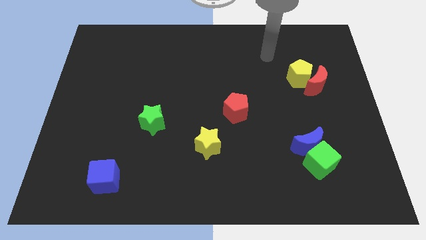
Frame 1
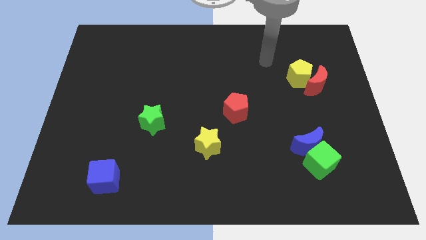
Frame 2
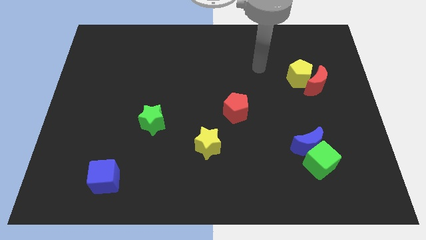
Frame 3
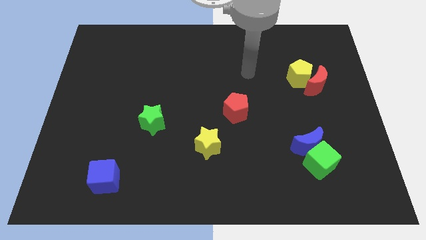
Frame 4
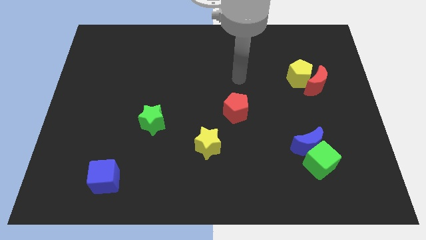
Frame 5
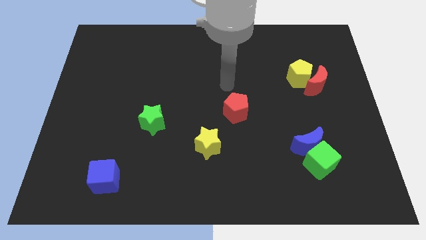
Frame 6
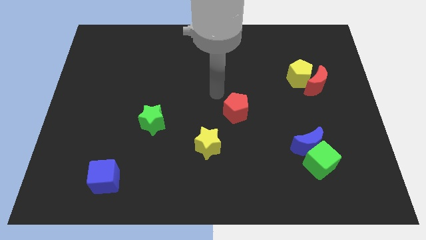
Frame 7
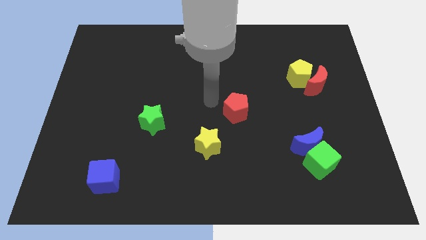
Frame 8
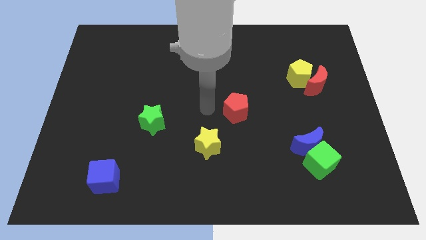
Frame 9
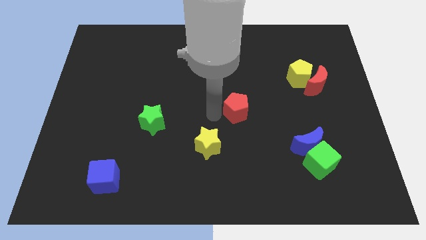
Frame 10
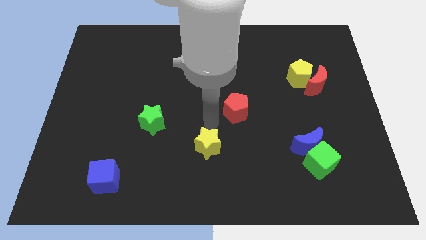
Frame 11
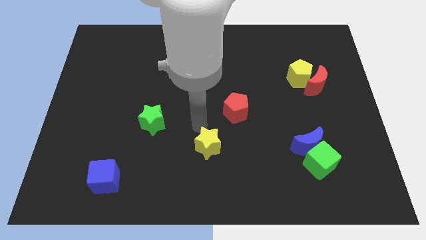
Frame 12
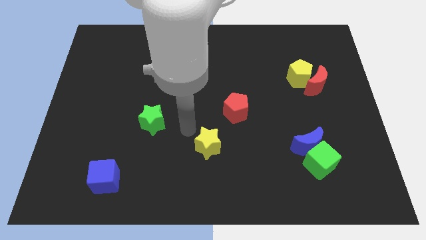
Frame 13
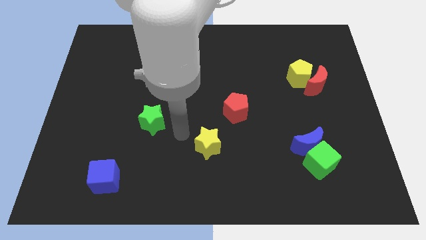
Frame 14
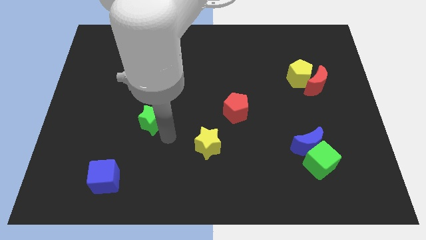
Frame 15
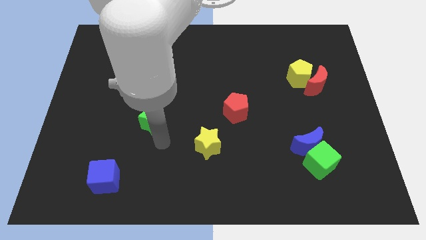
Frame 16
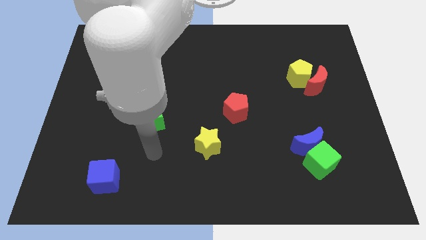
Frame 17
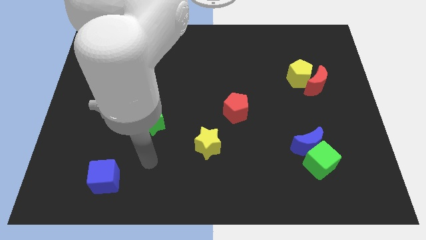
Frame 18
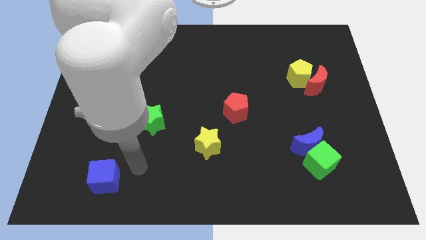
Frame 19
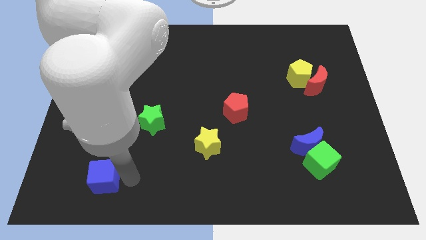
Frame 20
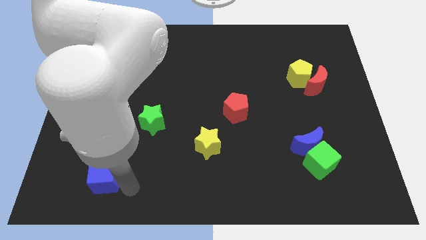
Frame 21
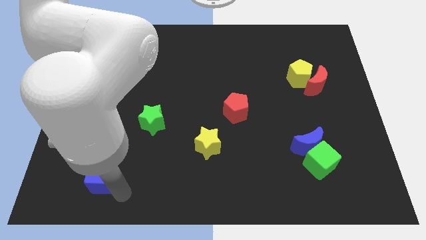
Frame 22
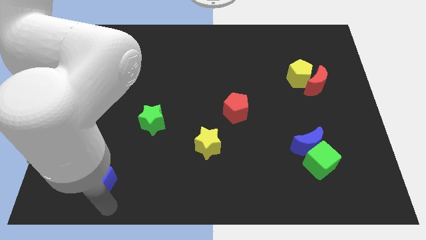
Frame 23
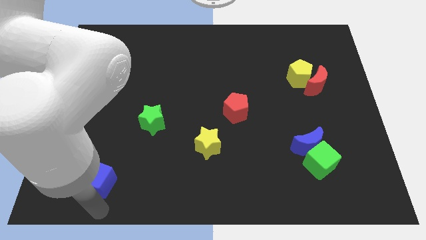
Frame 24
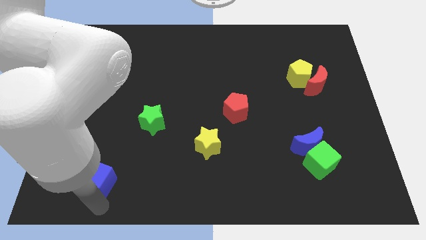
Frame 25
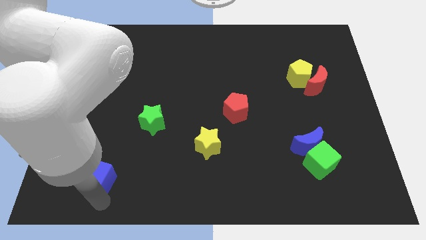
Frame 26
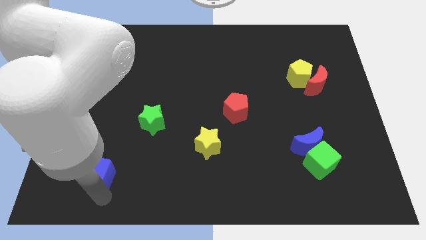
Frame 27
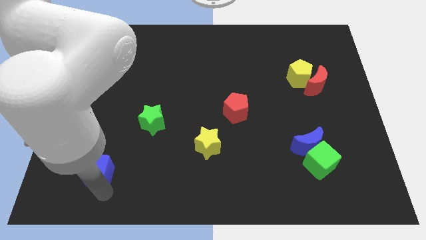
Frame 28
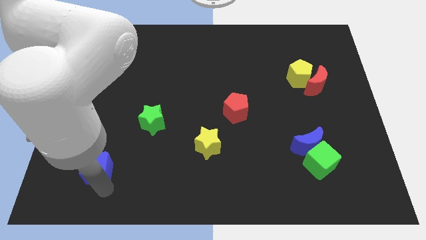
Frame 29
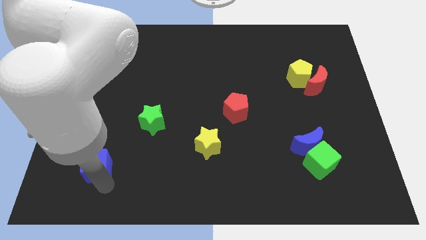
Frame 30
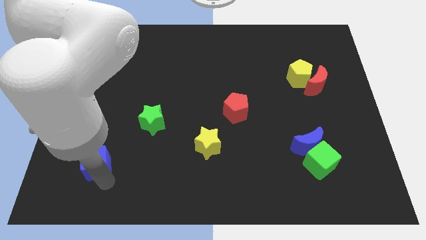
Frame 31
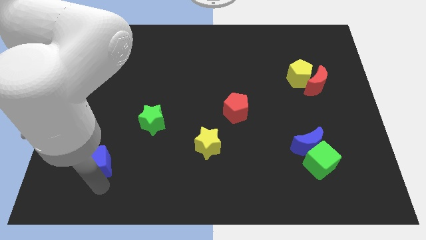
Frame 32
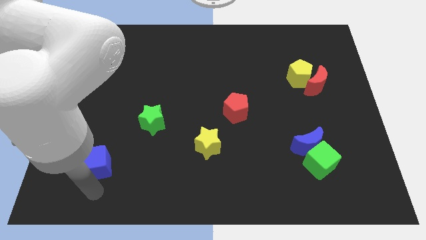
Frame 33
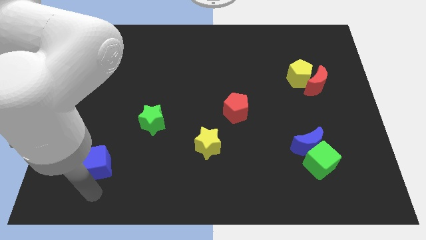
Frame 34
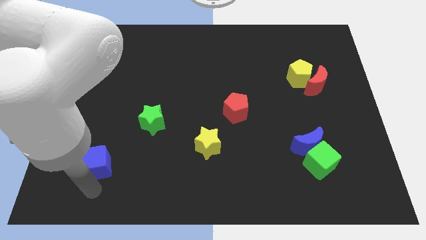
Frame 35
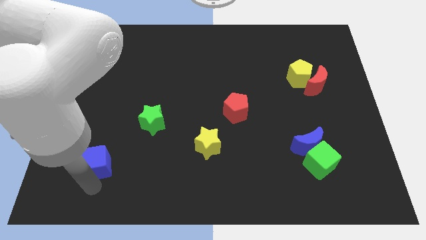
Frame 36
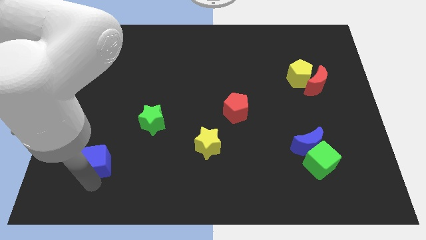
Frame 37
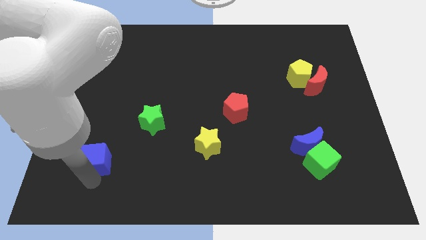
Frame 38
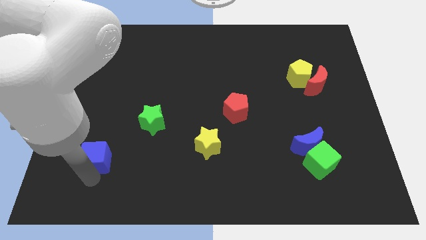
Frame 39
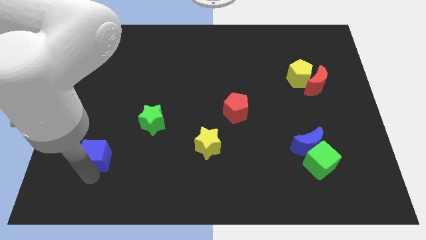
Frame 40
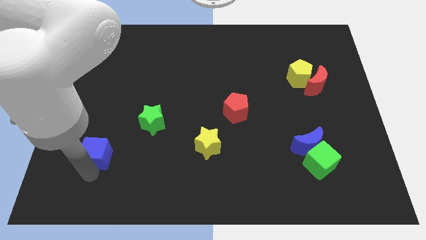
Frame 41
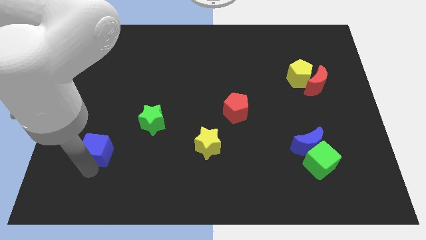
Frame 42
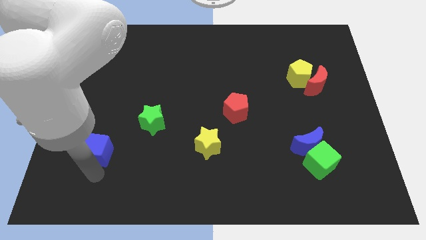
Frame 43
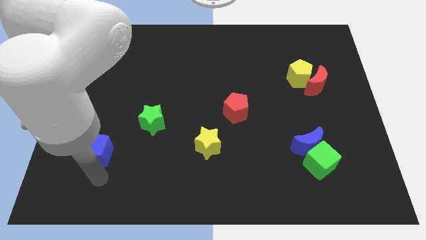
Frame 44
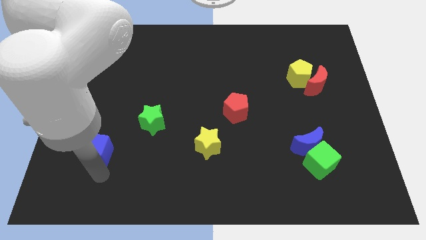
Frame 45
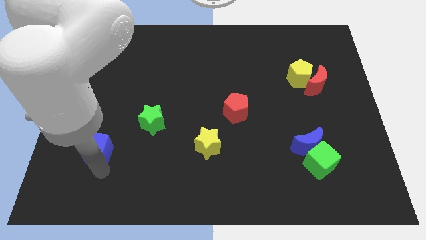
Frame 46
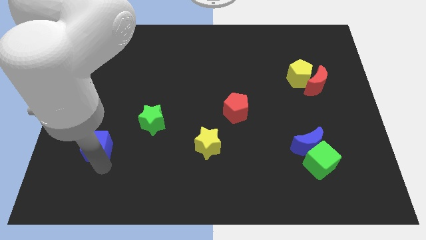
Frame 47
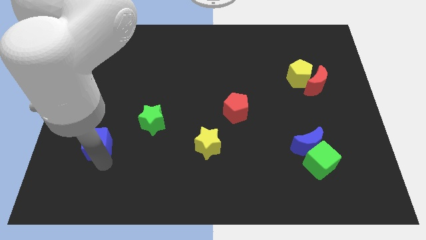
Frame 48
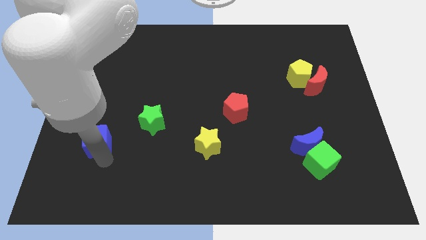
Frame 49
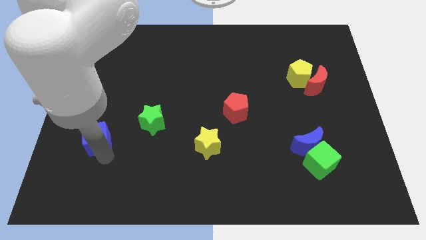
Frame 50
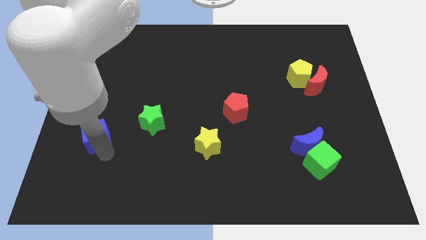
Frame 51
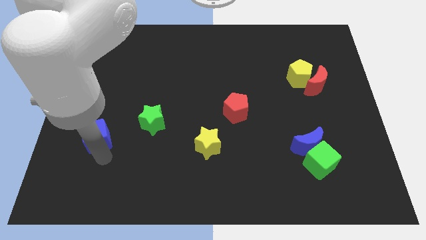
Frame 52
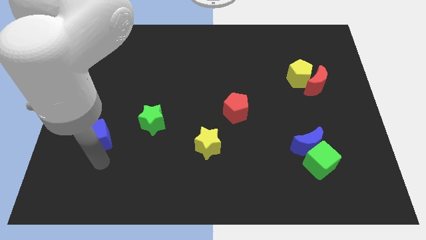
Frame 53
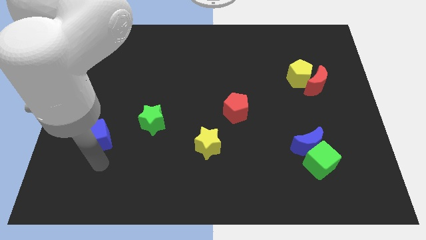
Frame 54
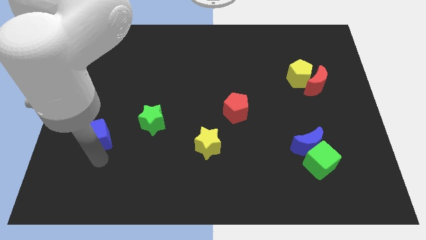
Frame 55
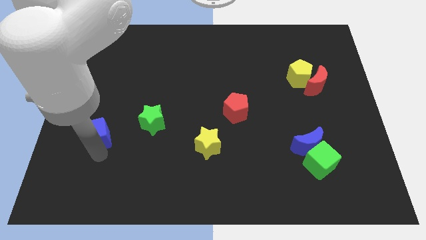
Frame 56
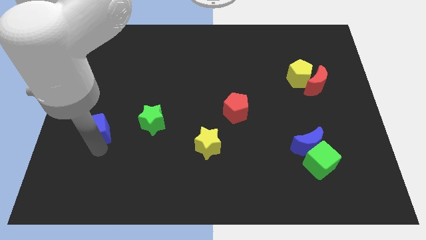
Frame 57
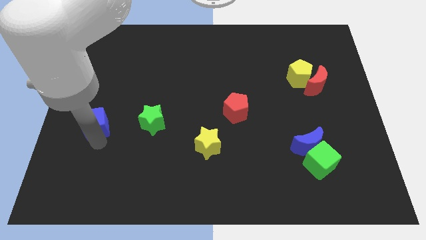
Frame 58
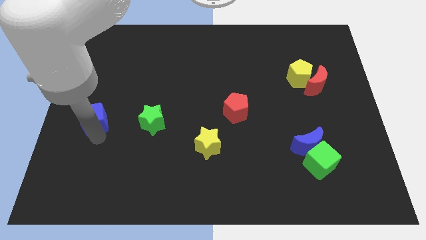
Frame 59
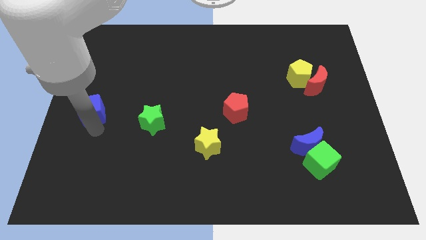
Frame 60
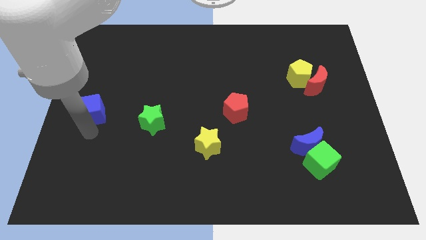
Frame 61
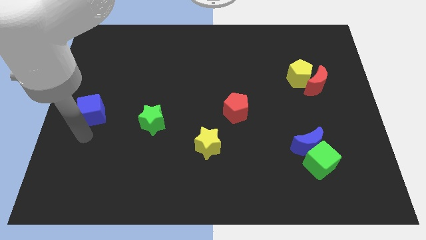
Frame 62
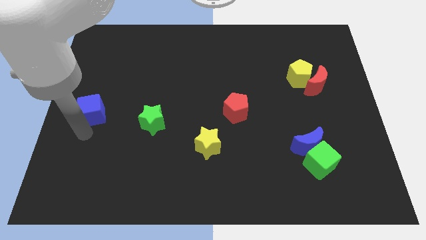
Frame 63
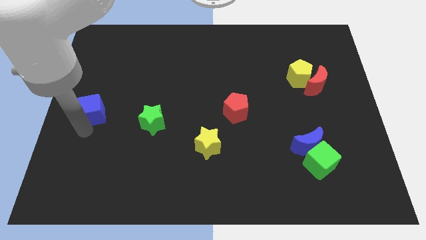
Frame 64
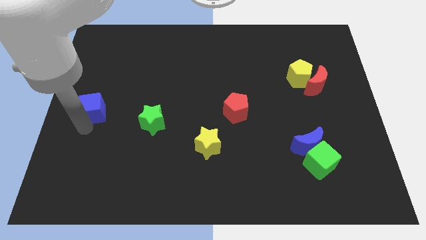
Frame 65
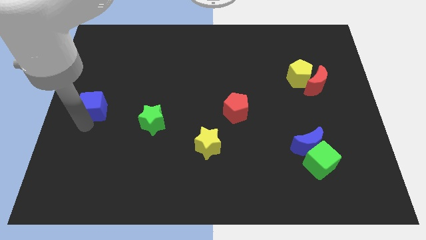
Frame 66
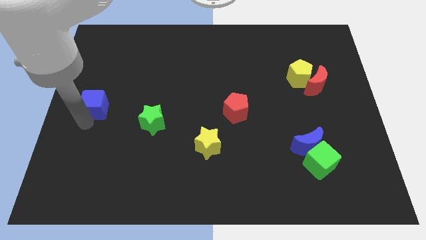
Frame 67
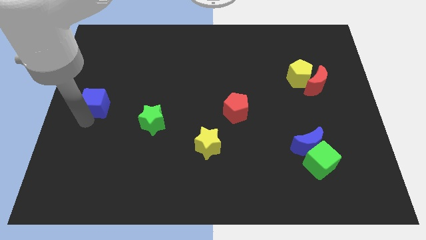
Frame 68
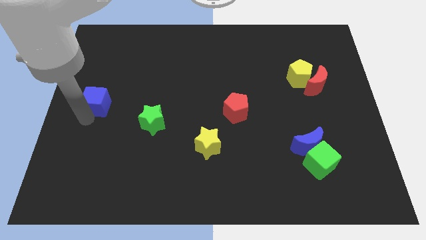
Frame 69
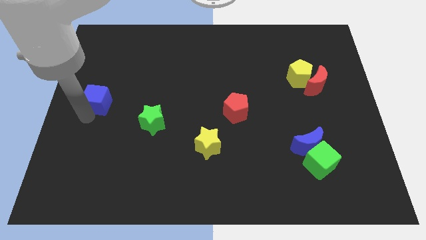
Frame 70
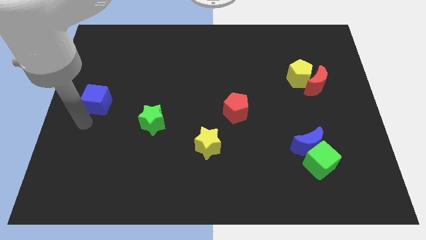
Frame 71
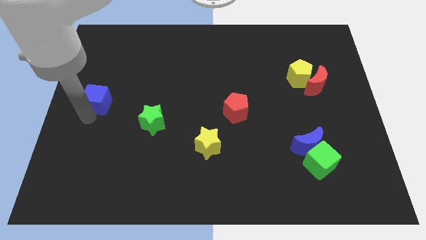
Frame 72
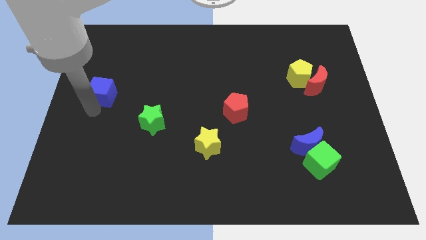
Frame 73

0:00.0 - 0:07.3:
push the blue cube upwards

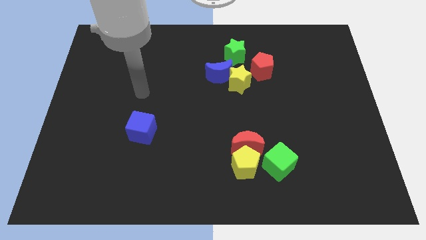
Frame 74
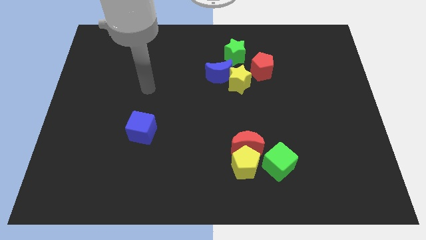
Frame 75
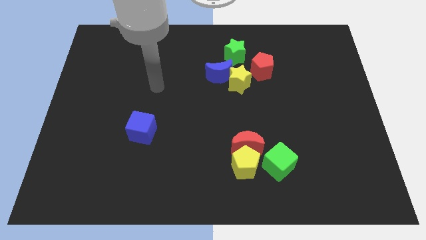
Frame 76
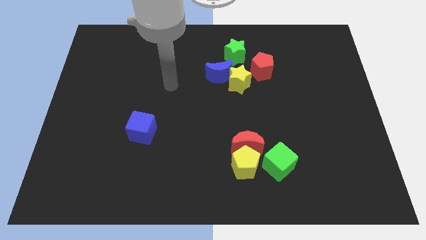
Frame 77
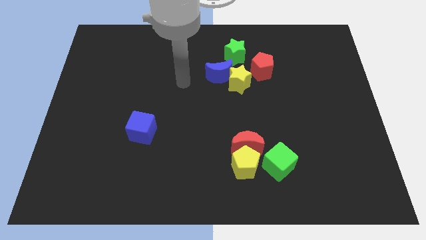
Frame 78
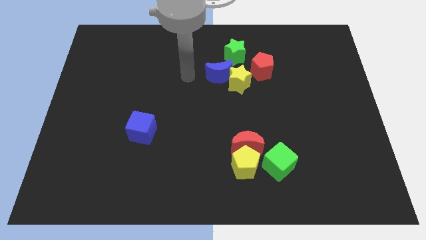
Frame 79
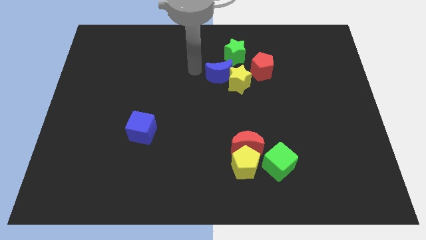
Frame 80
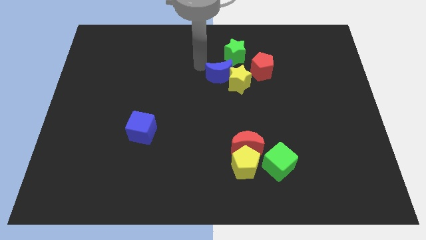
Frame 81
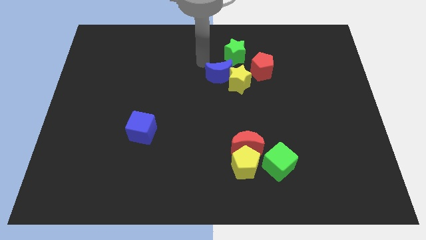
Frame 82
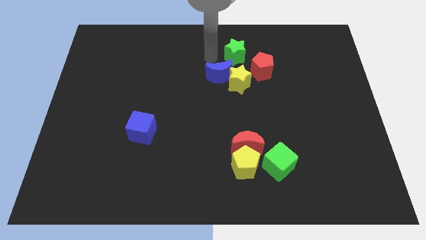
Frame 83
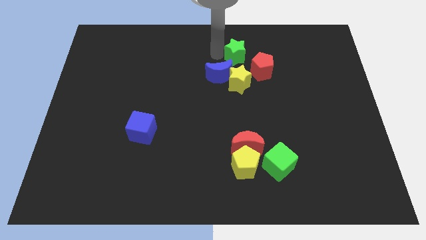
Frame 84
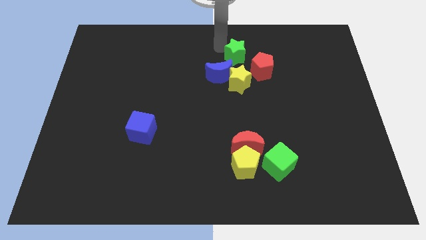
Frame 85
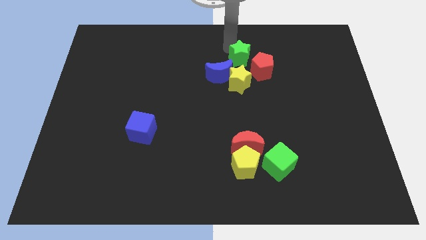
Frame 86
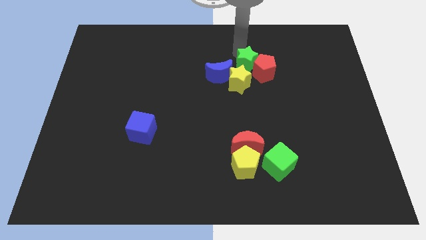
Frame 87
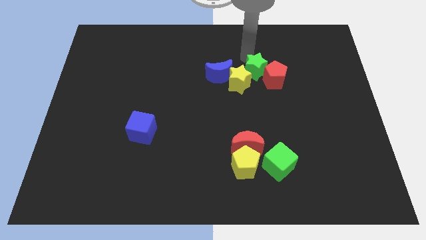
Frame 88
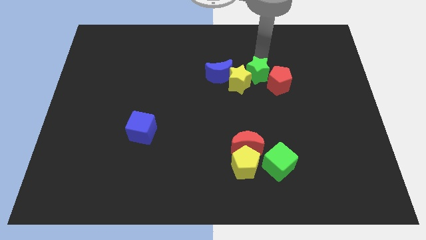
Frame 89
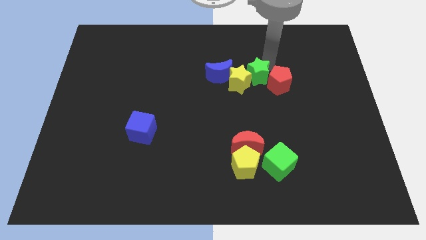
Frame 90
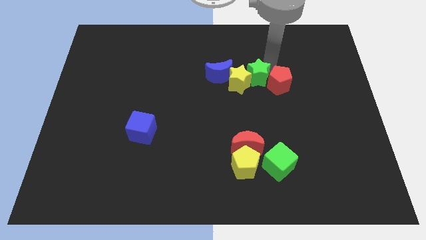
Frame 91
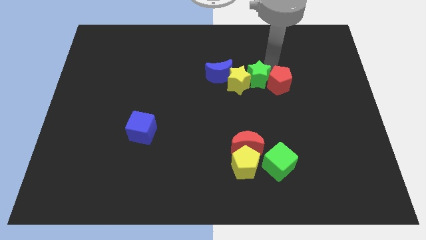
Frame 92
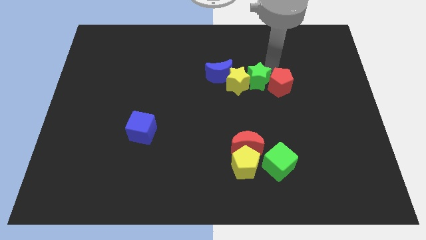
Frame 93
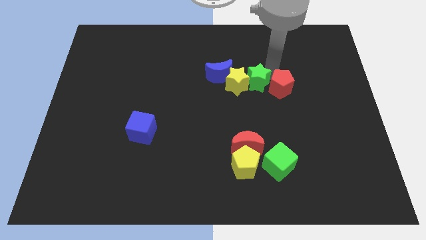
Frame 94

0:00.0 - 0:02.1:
push the red pentagon down and to the right a little
